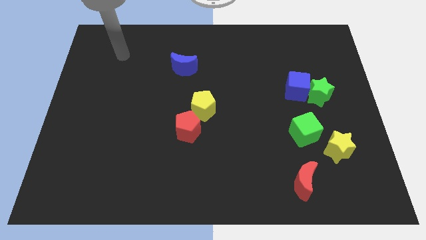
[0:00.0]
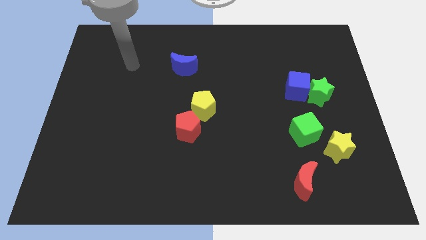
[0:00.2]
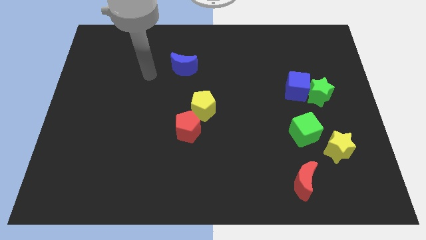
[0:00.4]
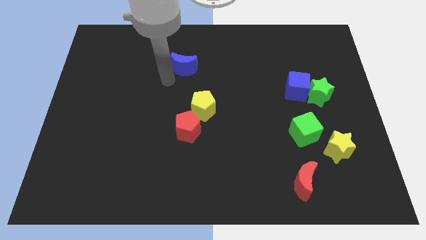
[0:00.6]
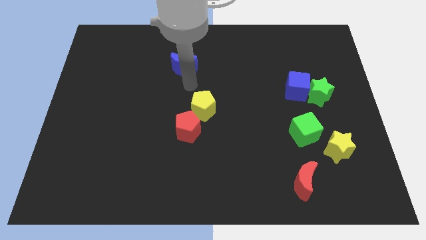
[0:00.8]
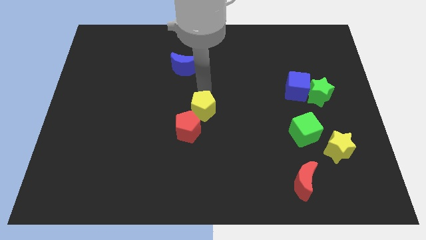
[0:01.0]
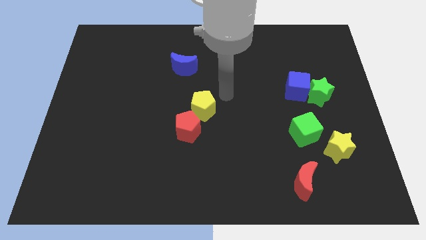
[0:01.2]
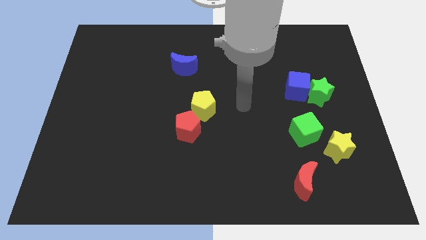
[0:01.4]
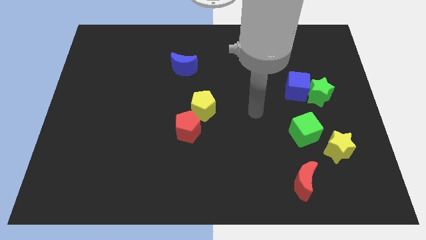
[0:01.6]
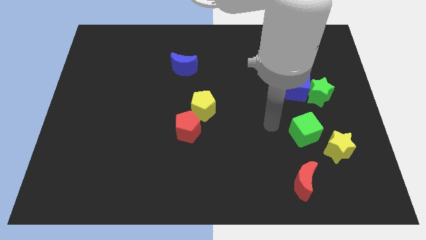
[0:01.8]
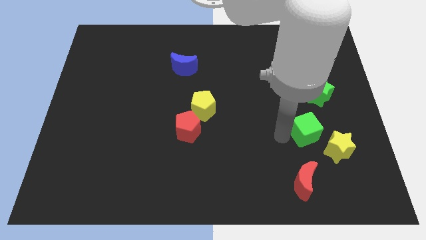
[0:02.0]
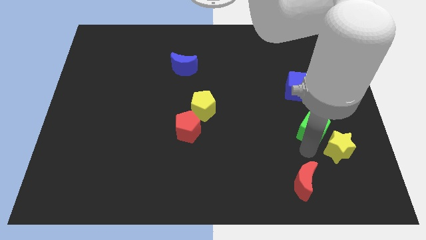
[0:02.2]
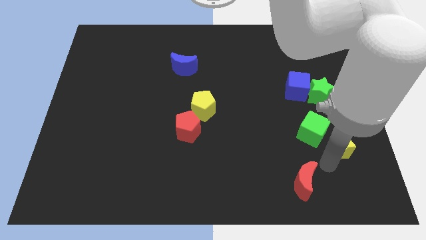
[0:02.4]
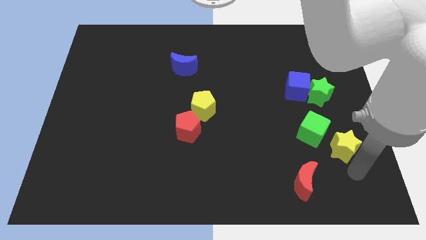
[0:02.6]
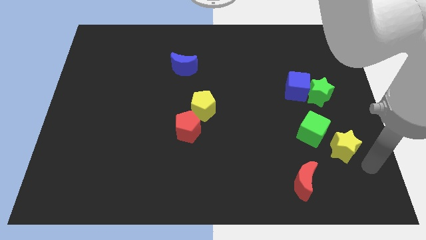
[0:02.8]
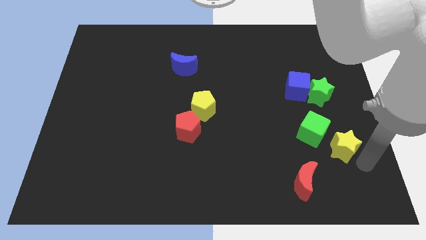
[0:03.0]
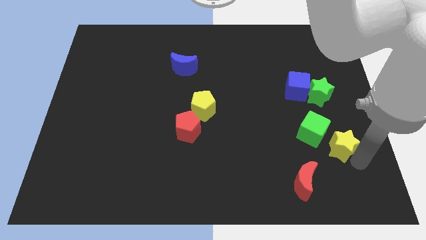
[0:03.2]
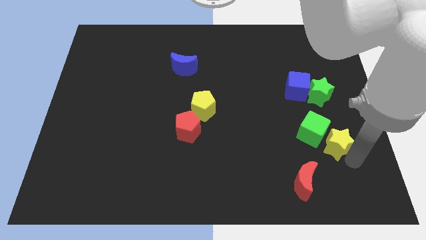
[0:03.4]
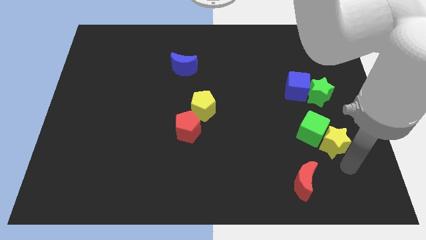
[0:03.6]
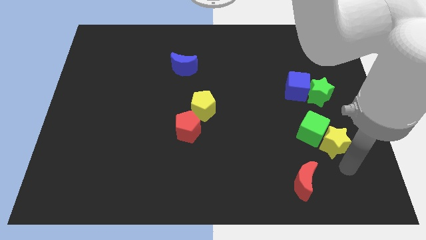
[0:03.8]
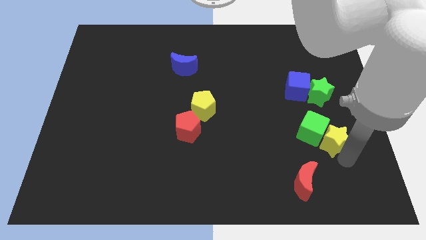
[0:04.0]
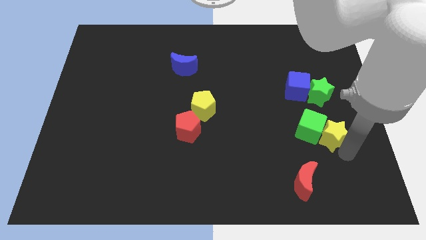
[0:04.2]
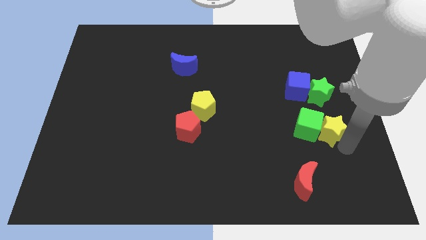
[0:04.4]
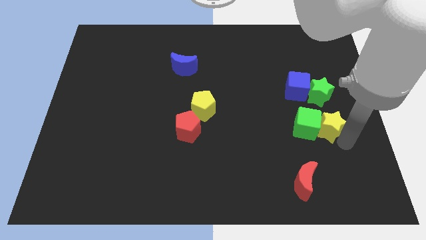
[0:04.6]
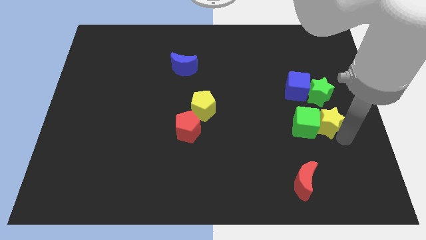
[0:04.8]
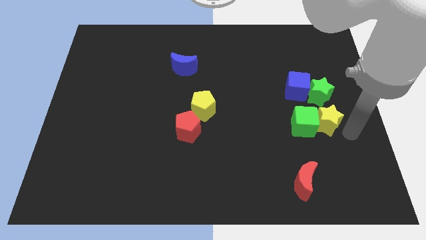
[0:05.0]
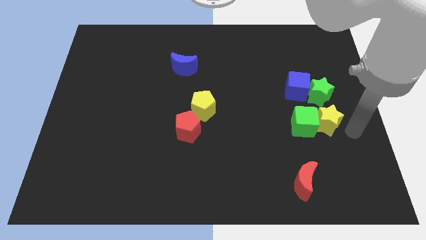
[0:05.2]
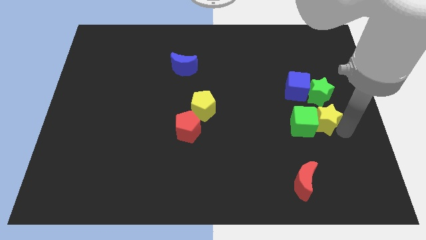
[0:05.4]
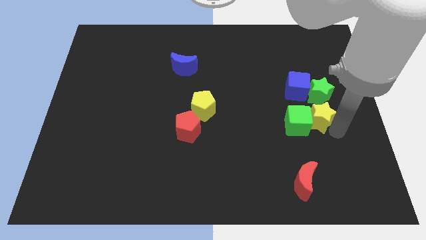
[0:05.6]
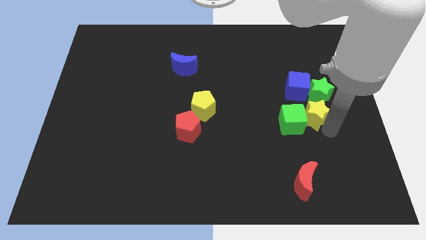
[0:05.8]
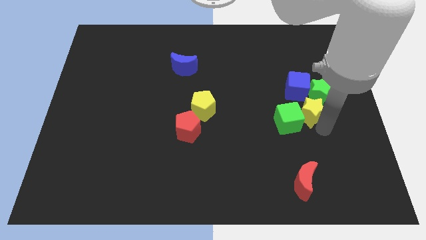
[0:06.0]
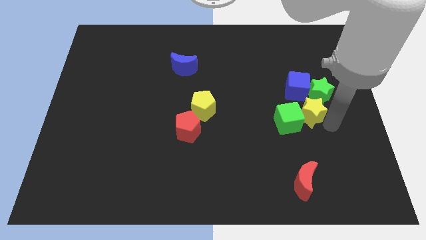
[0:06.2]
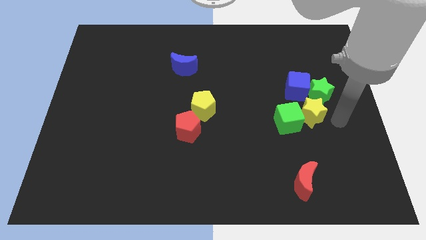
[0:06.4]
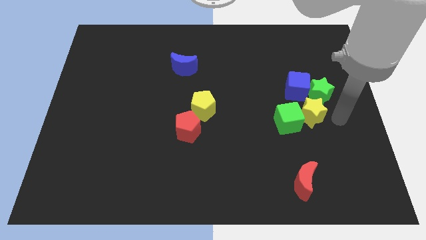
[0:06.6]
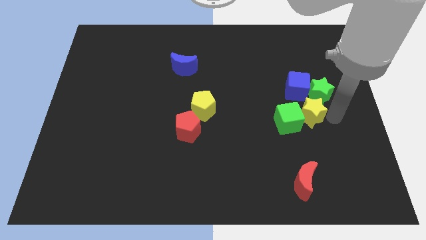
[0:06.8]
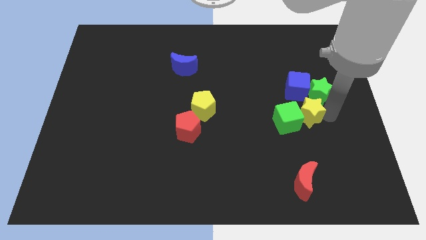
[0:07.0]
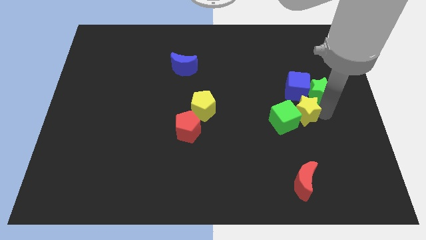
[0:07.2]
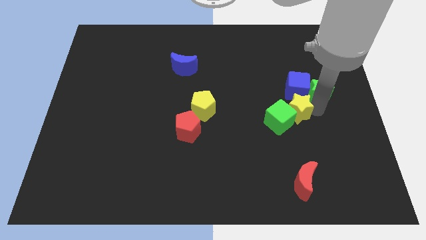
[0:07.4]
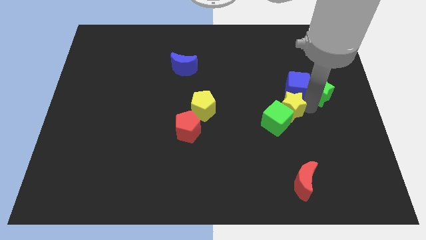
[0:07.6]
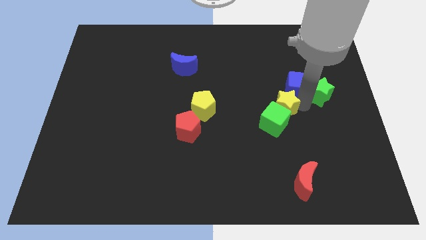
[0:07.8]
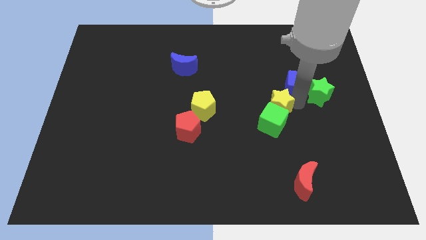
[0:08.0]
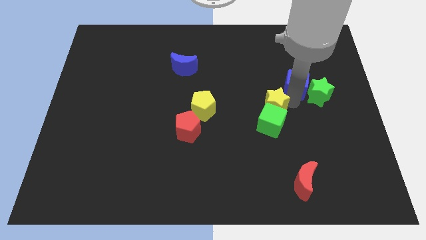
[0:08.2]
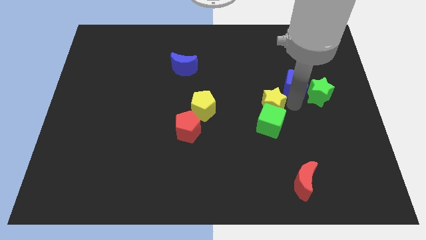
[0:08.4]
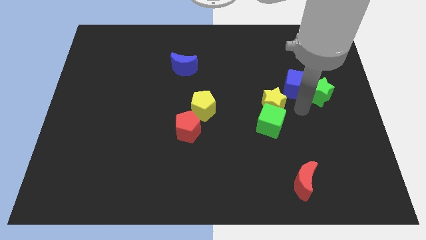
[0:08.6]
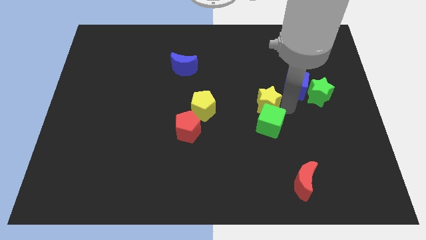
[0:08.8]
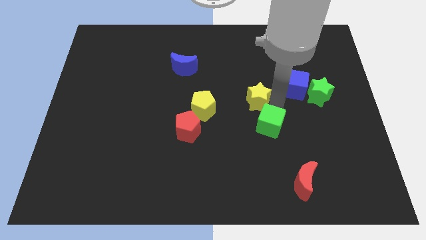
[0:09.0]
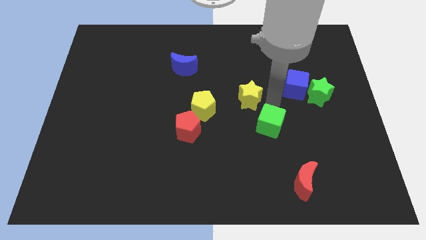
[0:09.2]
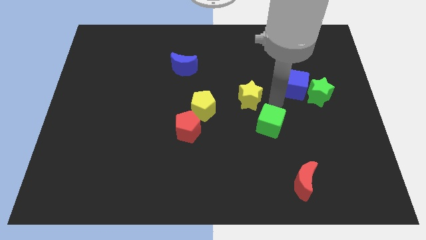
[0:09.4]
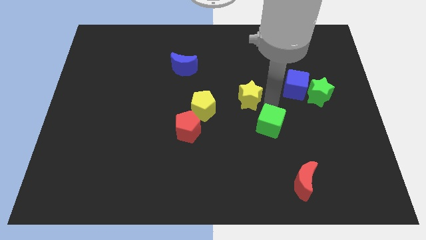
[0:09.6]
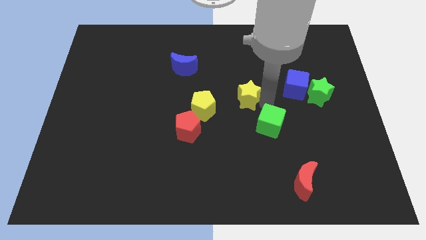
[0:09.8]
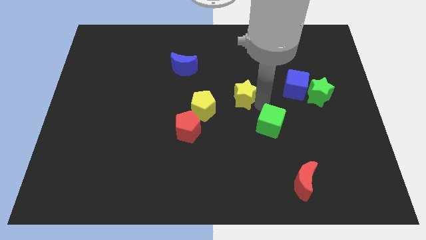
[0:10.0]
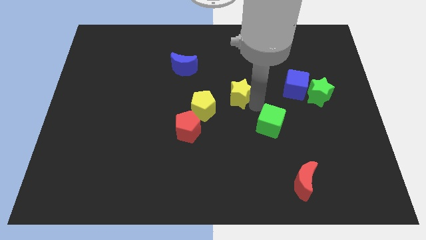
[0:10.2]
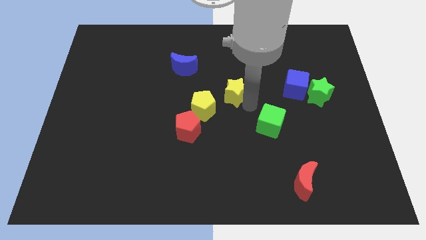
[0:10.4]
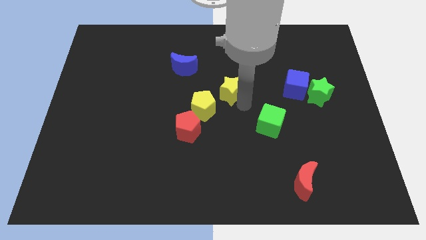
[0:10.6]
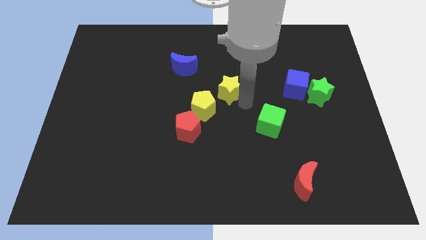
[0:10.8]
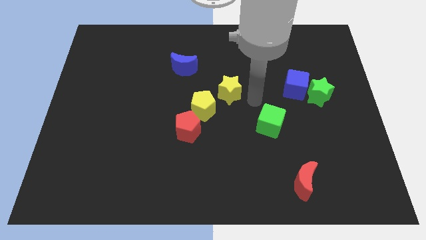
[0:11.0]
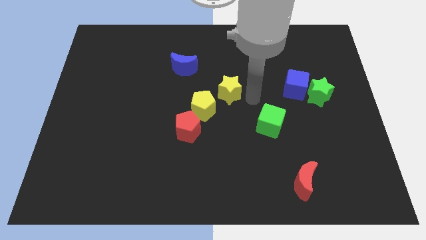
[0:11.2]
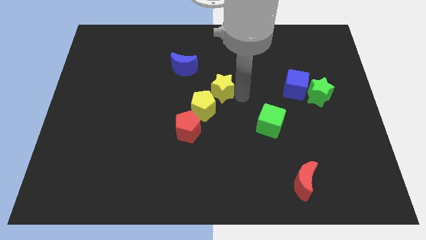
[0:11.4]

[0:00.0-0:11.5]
push the yellow star diagonally down and to the right of the blue moon

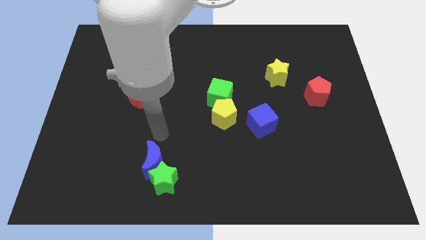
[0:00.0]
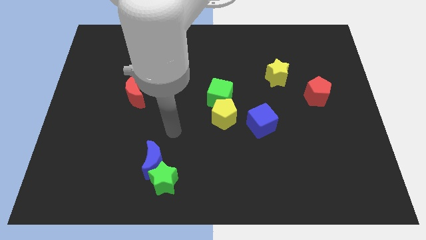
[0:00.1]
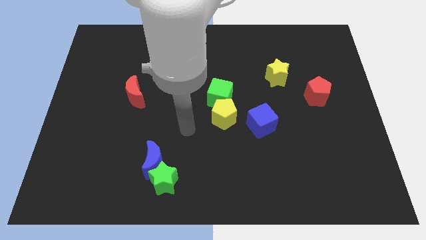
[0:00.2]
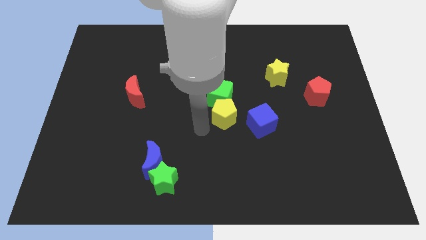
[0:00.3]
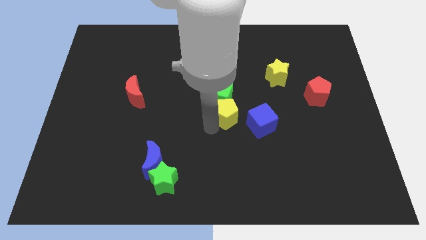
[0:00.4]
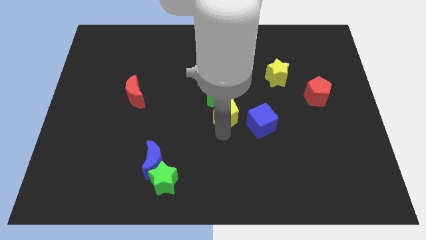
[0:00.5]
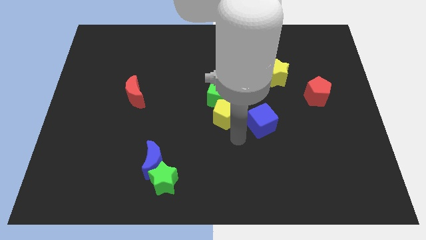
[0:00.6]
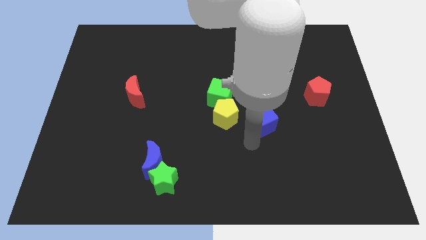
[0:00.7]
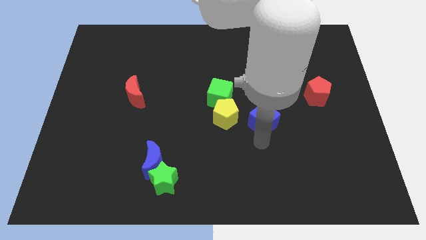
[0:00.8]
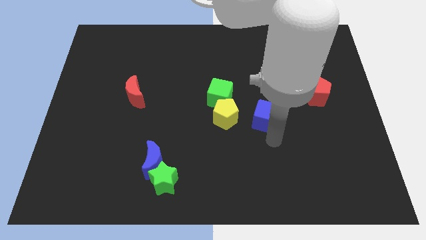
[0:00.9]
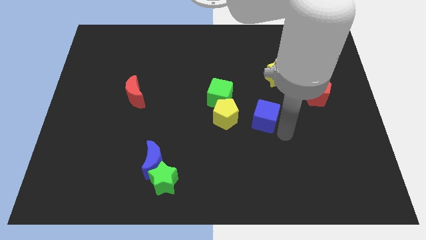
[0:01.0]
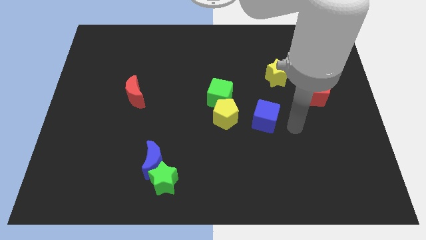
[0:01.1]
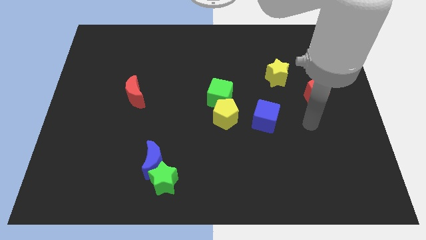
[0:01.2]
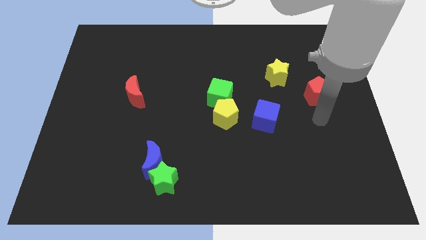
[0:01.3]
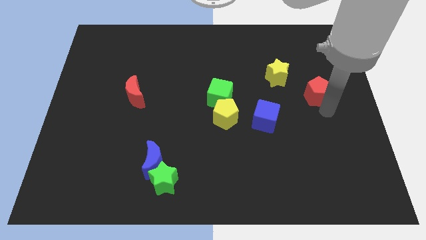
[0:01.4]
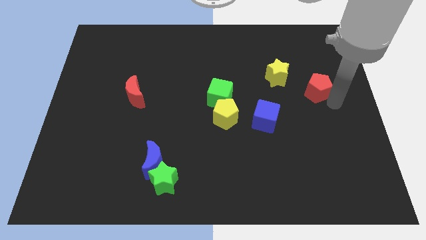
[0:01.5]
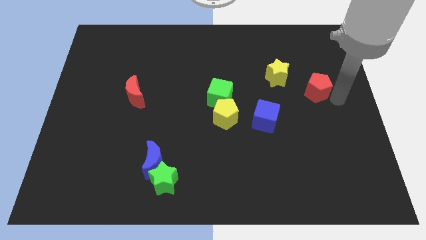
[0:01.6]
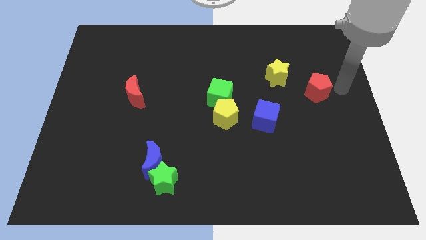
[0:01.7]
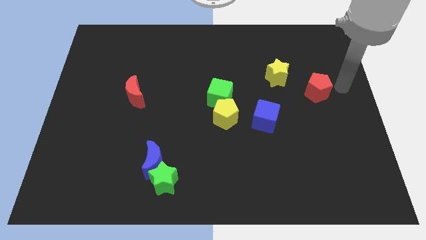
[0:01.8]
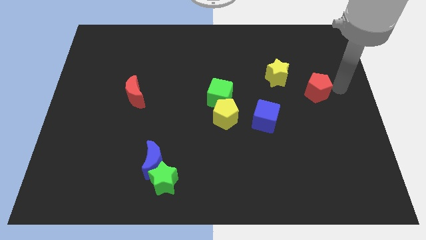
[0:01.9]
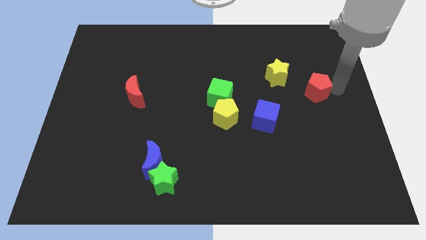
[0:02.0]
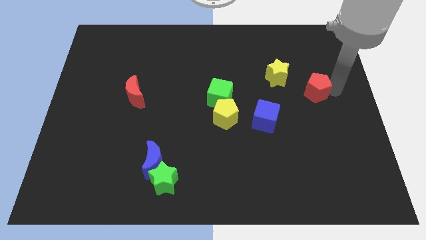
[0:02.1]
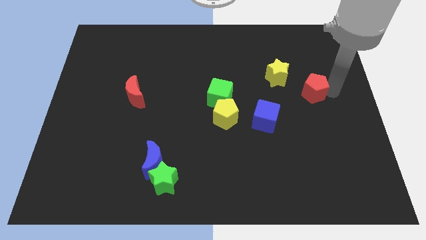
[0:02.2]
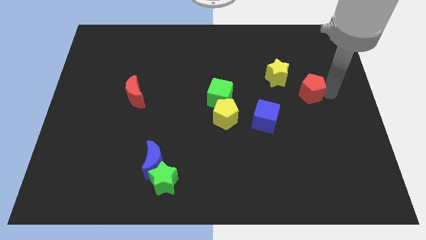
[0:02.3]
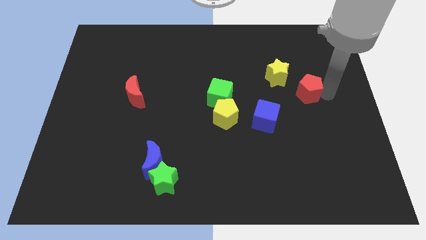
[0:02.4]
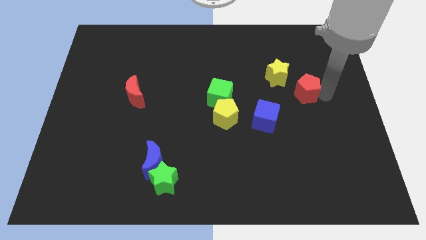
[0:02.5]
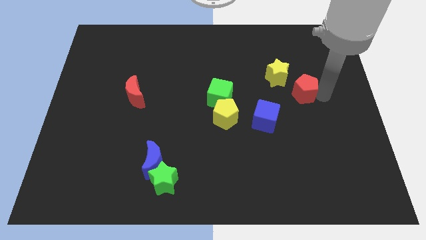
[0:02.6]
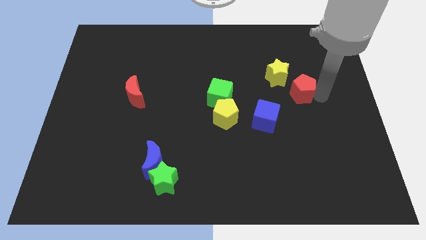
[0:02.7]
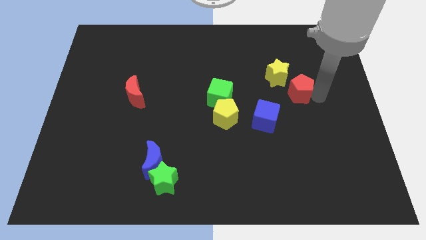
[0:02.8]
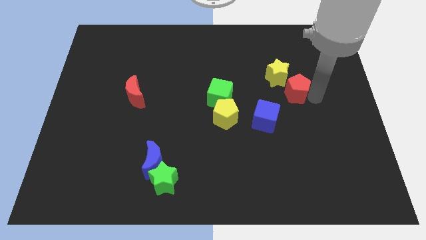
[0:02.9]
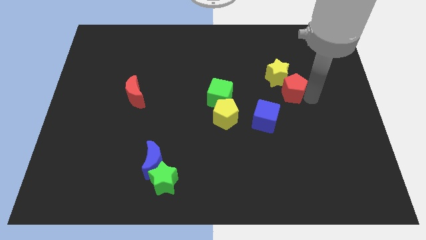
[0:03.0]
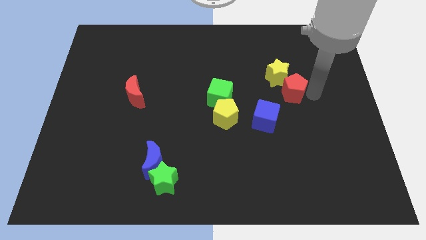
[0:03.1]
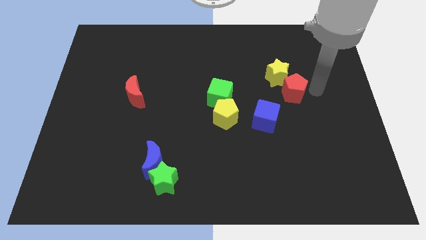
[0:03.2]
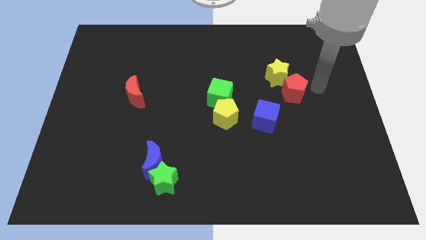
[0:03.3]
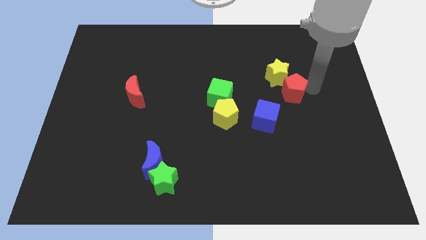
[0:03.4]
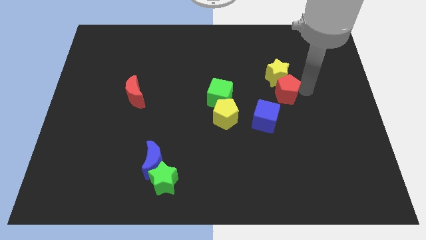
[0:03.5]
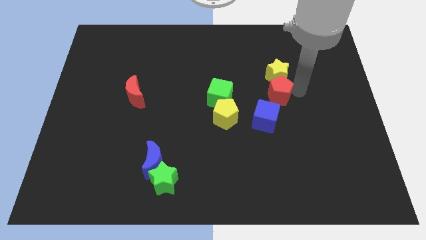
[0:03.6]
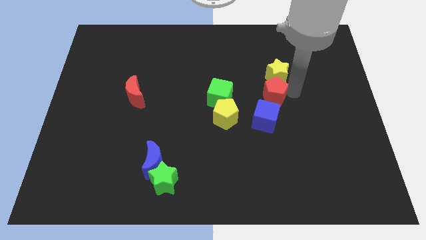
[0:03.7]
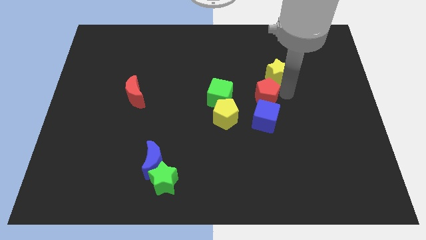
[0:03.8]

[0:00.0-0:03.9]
push the red pentagon to the top right side of the yellow pentagon
